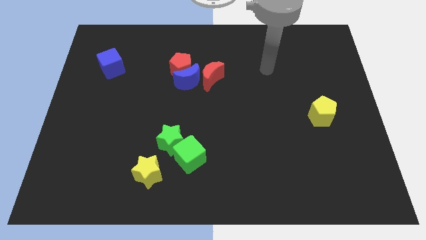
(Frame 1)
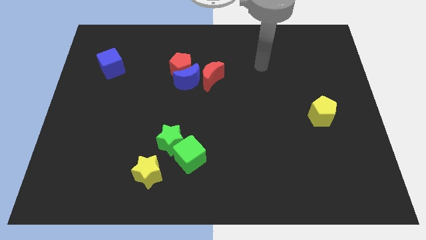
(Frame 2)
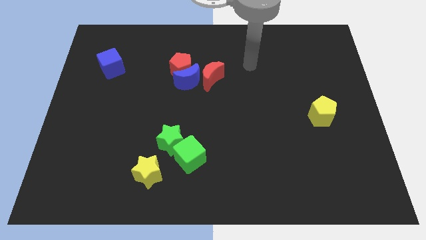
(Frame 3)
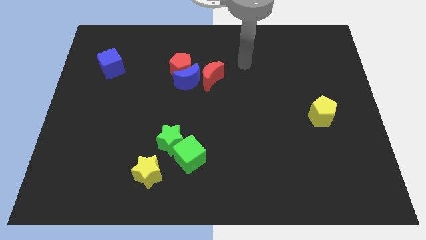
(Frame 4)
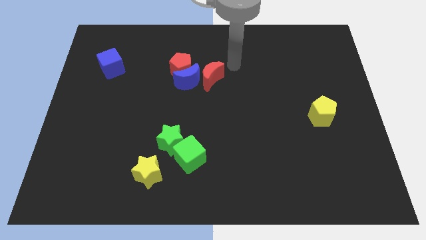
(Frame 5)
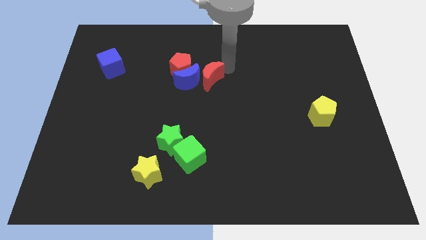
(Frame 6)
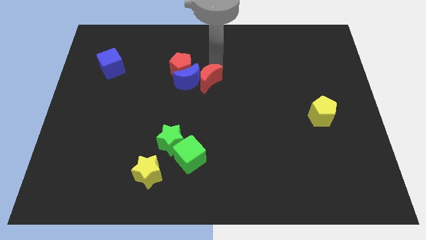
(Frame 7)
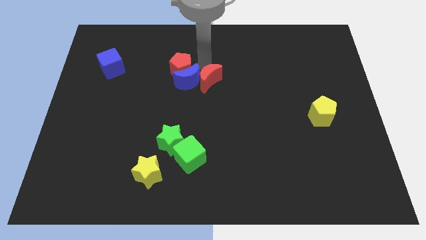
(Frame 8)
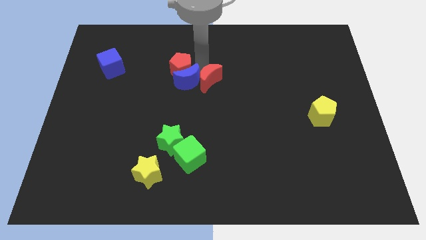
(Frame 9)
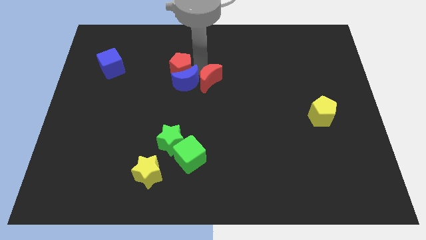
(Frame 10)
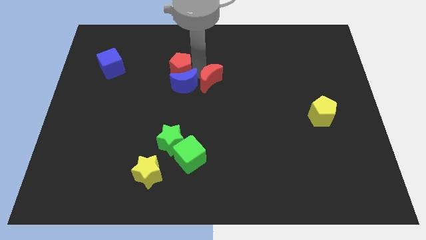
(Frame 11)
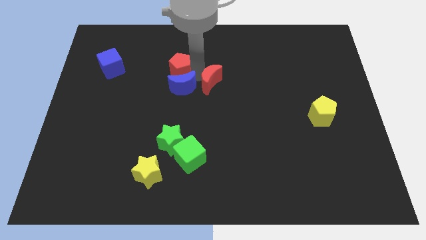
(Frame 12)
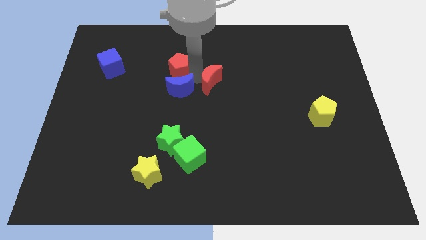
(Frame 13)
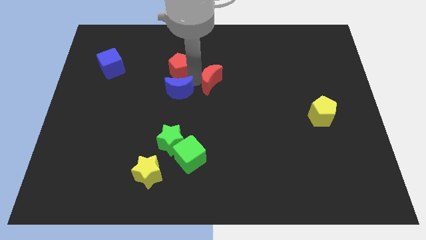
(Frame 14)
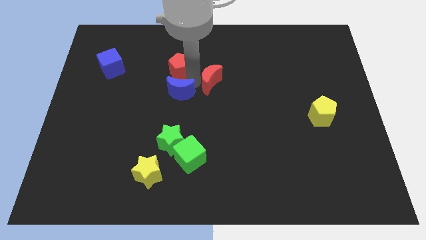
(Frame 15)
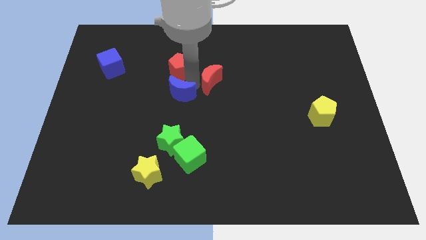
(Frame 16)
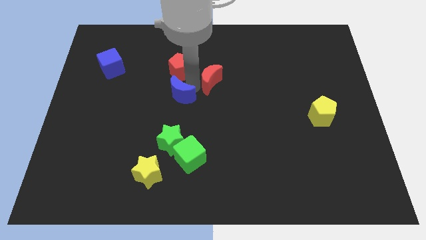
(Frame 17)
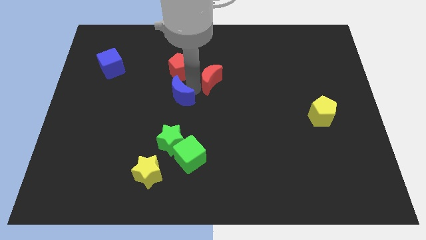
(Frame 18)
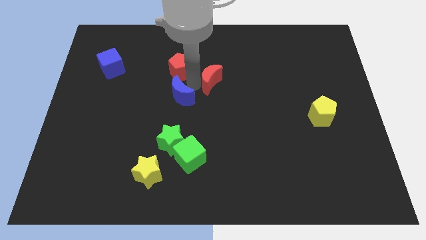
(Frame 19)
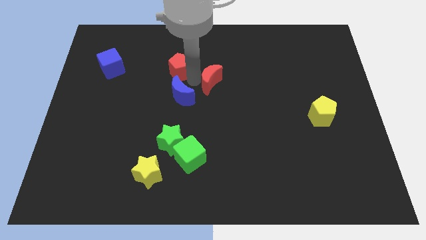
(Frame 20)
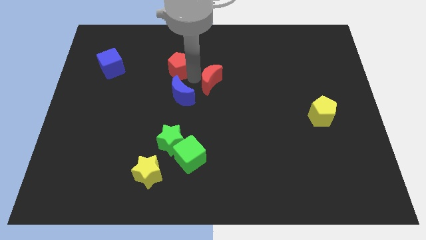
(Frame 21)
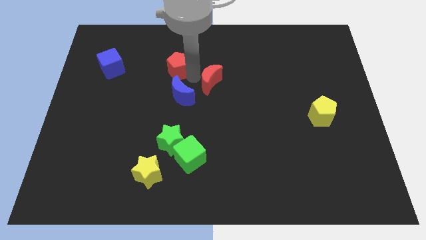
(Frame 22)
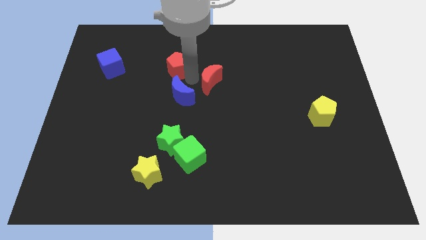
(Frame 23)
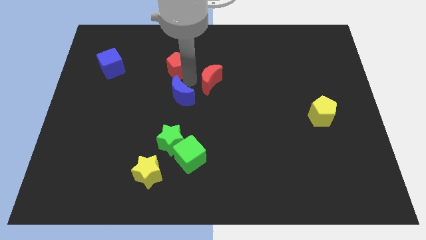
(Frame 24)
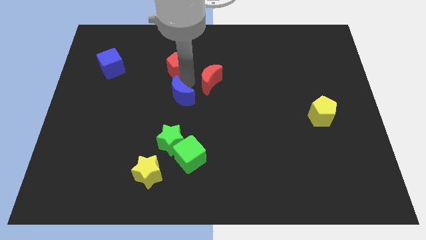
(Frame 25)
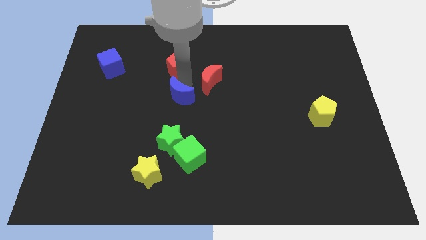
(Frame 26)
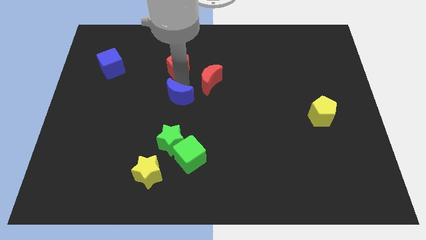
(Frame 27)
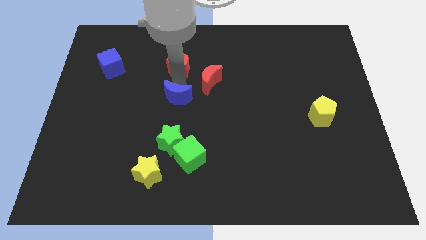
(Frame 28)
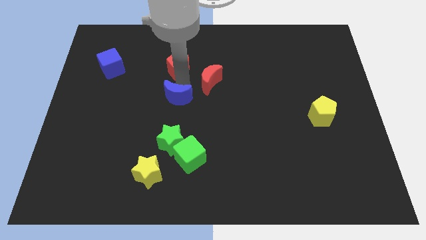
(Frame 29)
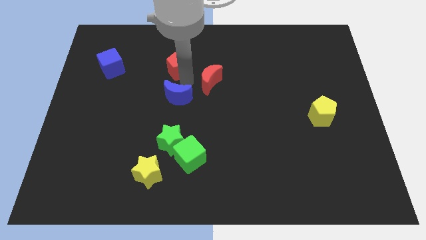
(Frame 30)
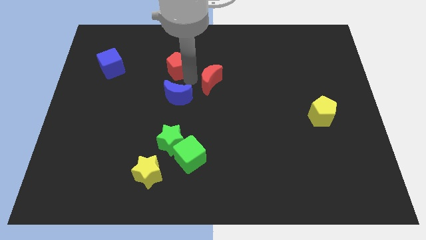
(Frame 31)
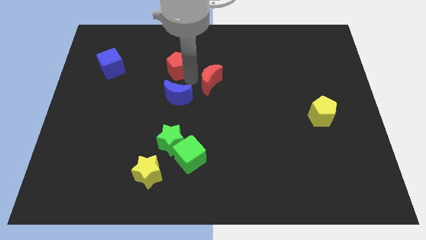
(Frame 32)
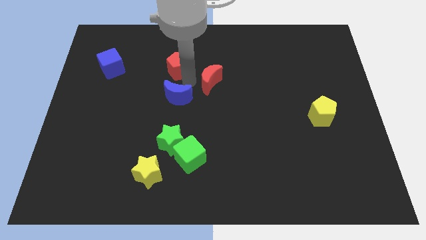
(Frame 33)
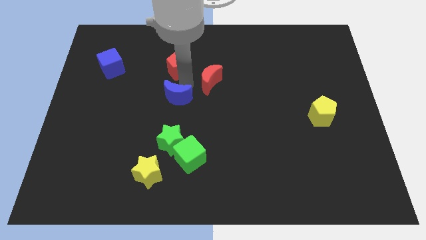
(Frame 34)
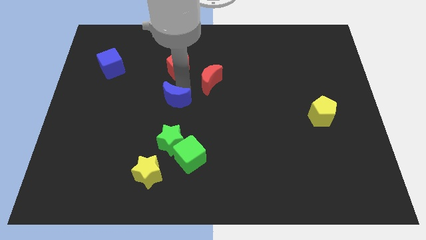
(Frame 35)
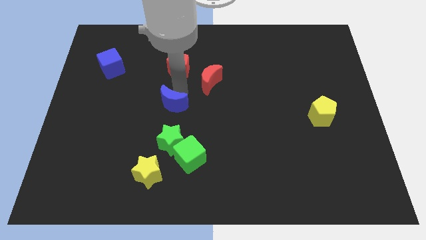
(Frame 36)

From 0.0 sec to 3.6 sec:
move the blue moon away from the red pentagon and red moon

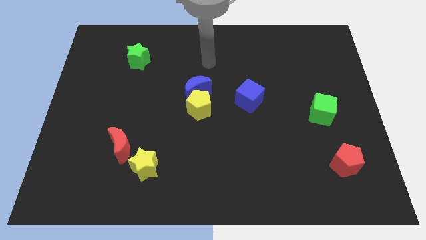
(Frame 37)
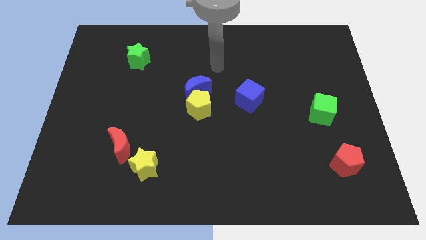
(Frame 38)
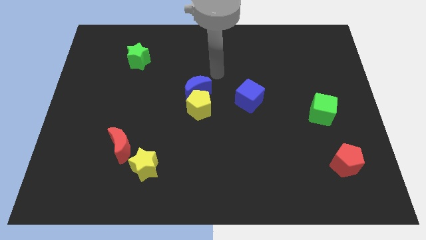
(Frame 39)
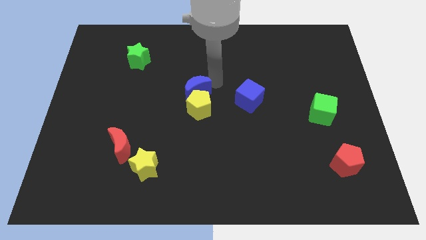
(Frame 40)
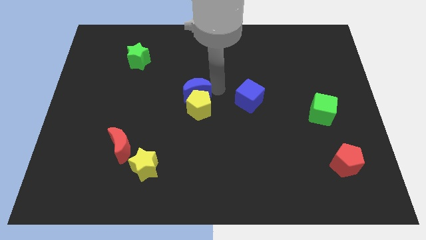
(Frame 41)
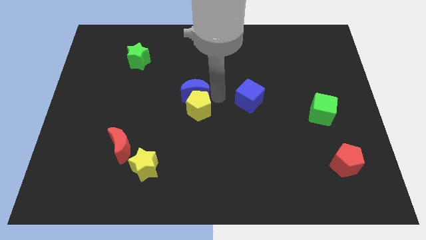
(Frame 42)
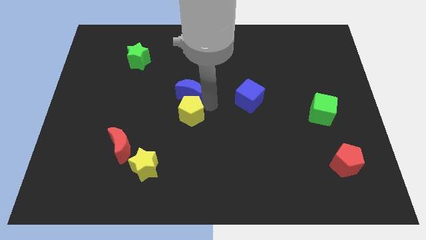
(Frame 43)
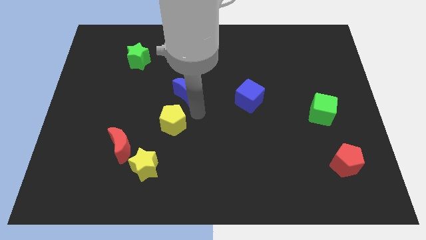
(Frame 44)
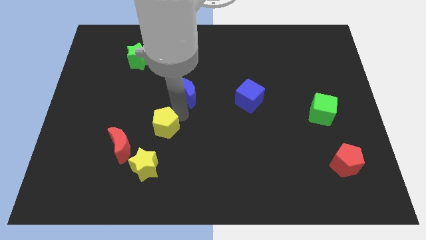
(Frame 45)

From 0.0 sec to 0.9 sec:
separate the blue moon from the yellow pentagon

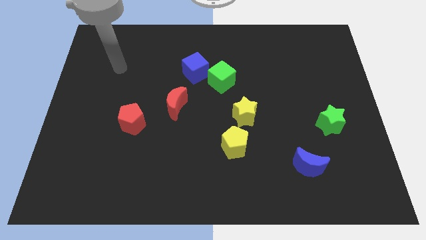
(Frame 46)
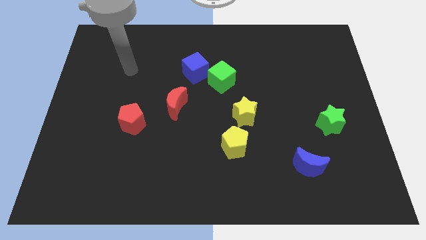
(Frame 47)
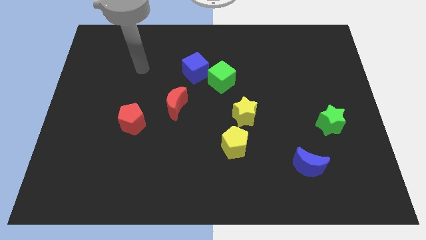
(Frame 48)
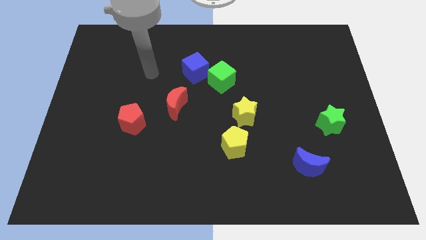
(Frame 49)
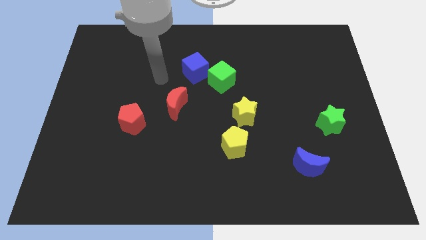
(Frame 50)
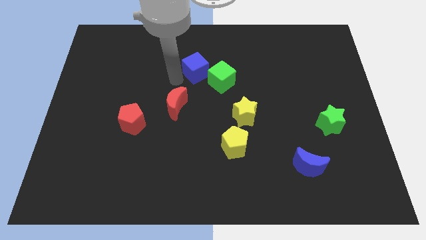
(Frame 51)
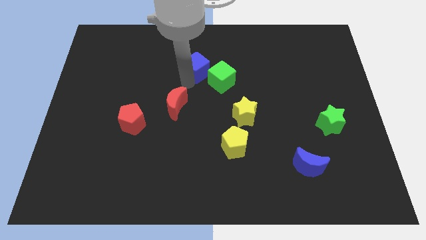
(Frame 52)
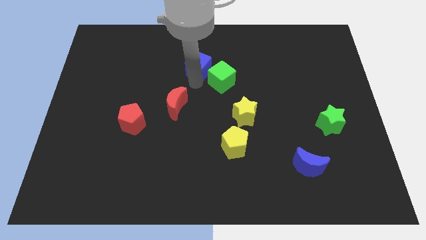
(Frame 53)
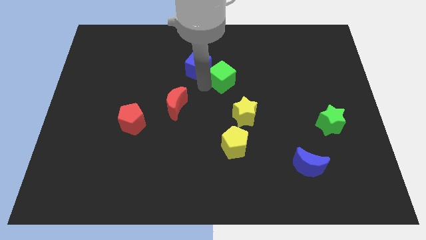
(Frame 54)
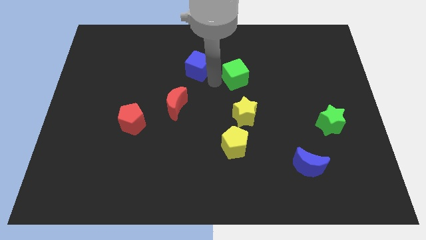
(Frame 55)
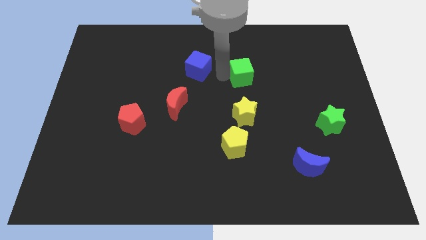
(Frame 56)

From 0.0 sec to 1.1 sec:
move the blue cube away from the green cube

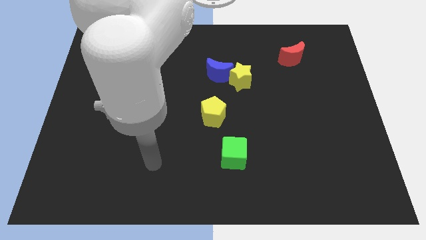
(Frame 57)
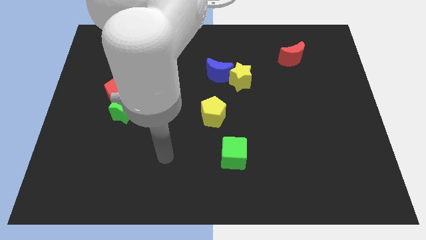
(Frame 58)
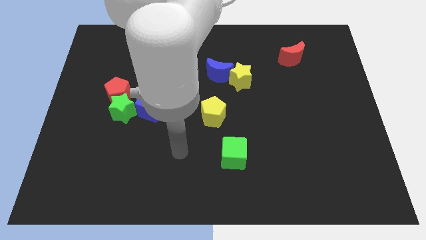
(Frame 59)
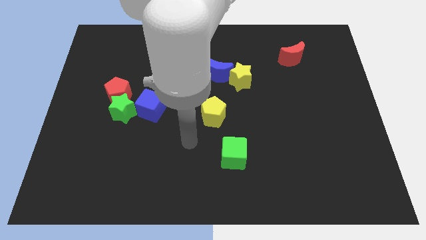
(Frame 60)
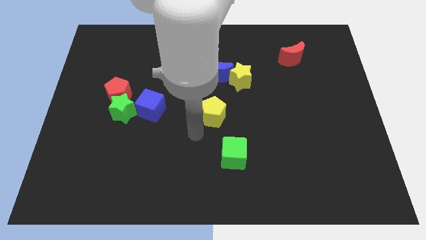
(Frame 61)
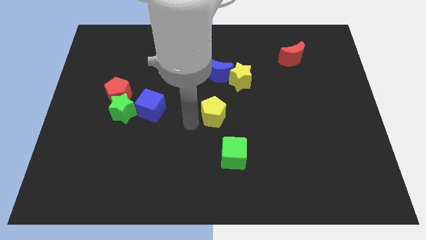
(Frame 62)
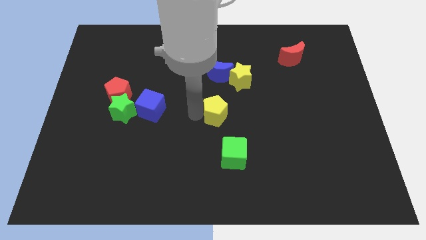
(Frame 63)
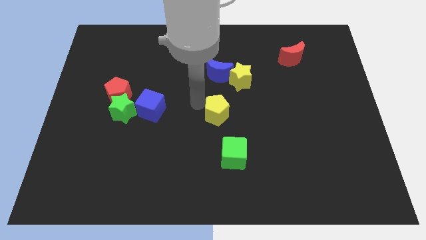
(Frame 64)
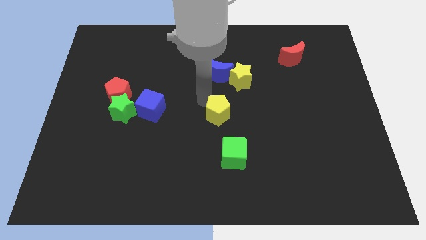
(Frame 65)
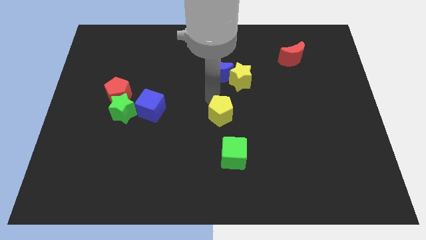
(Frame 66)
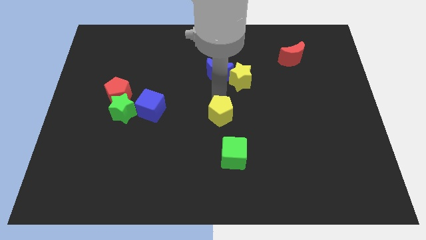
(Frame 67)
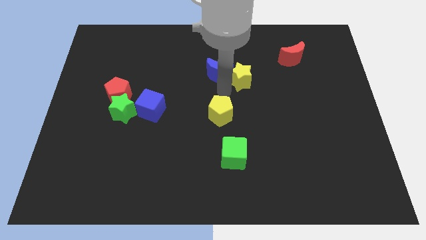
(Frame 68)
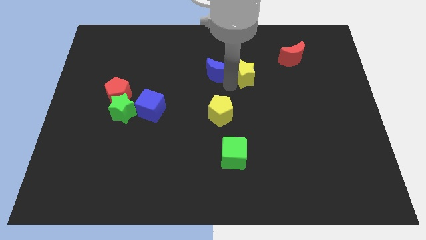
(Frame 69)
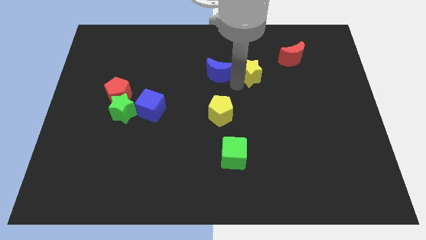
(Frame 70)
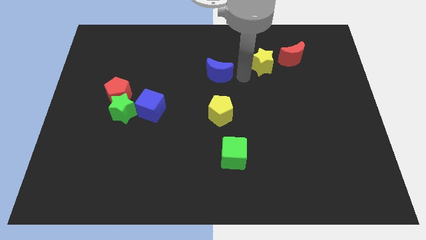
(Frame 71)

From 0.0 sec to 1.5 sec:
pull the blue moon apart from the yellow star

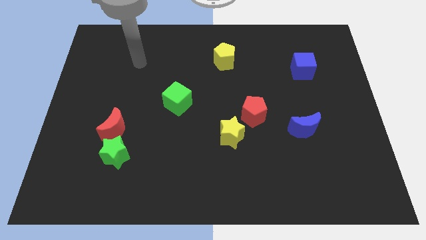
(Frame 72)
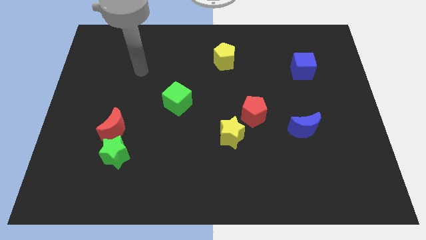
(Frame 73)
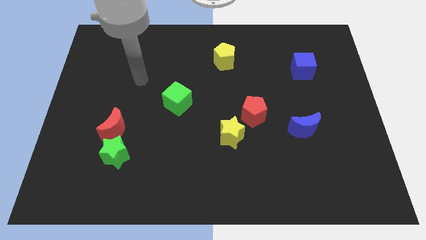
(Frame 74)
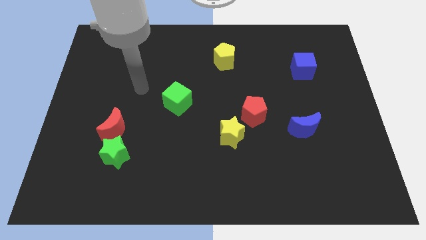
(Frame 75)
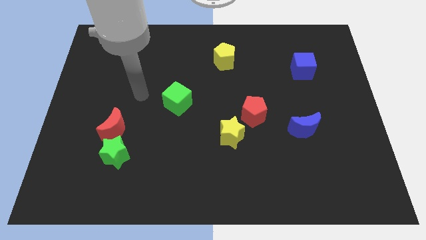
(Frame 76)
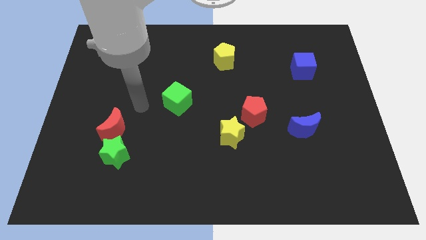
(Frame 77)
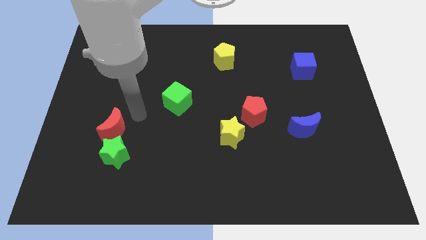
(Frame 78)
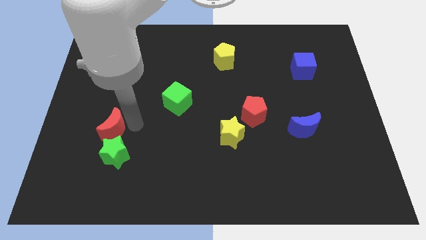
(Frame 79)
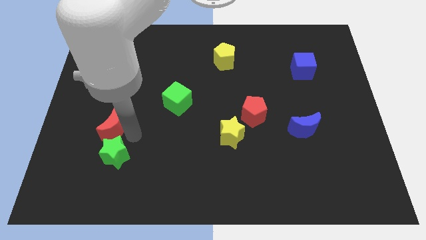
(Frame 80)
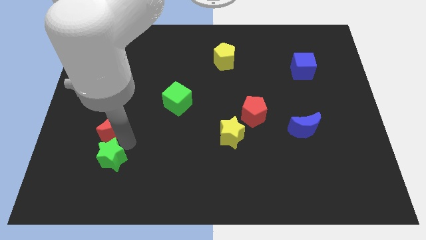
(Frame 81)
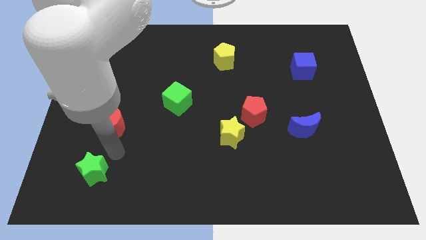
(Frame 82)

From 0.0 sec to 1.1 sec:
pull the red moon apart from the green star

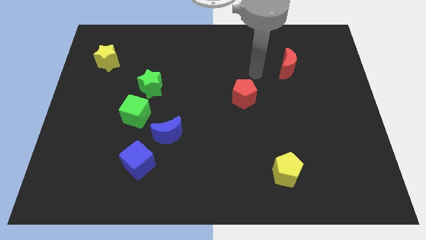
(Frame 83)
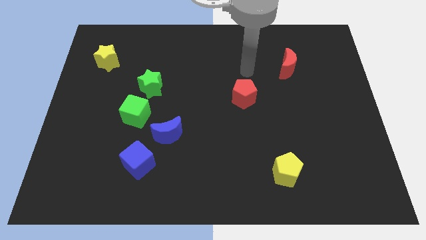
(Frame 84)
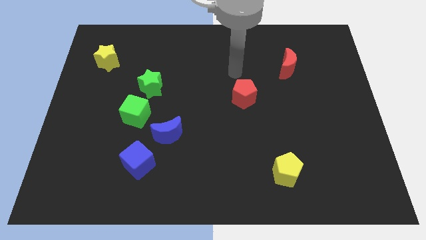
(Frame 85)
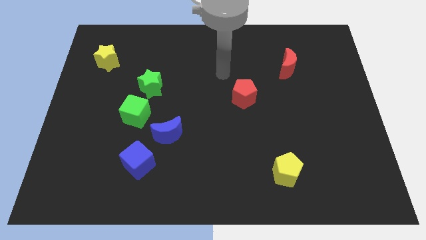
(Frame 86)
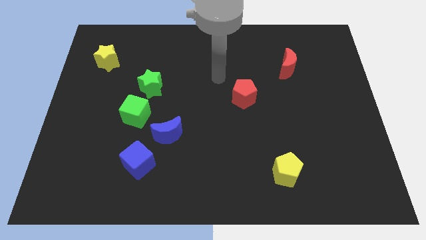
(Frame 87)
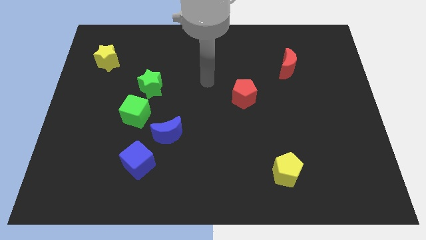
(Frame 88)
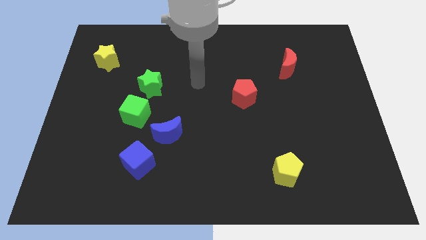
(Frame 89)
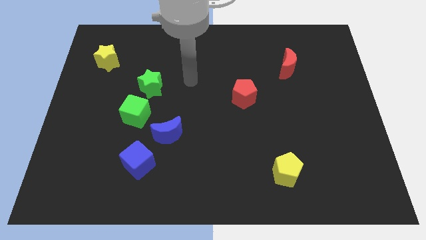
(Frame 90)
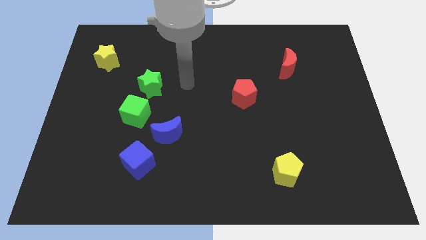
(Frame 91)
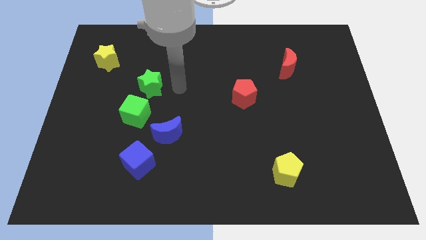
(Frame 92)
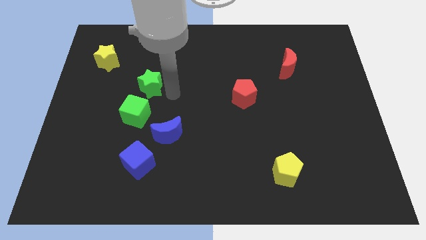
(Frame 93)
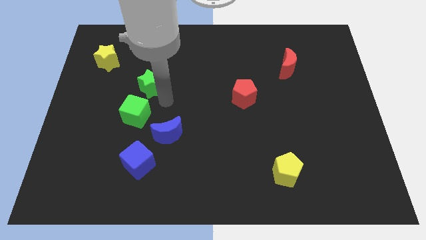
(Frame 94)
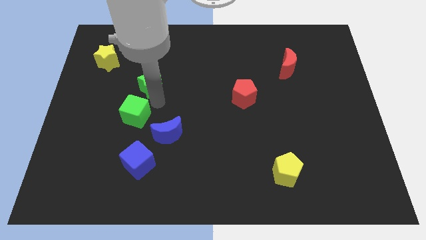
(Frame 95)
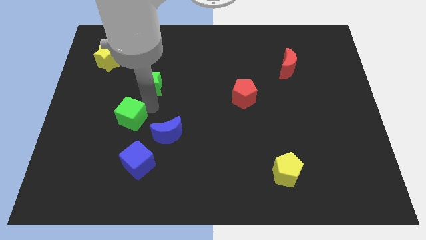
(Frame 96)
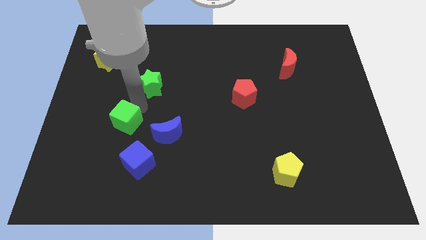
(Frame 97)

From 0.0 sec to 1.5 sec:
pull the green star apart from the green cube
